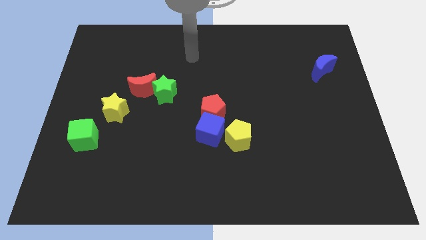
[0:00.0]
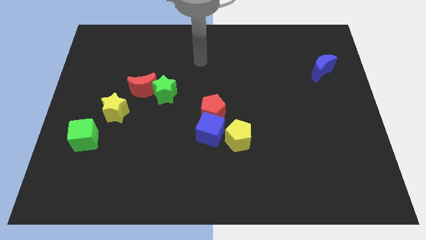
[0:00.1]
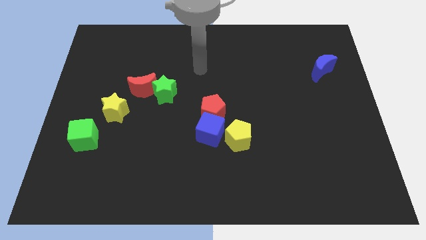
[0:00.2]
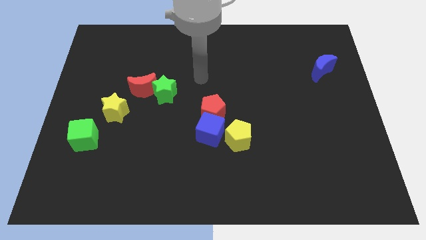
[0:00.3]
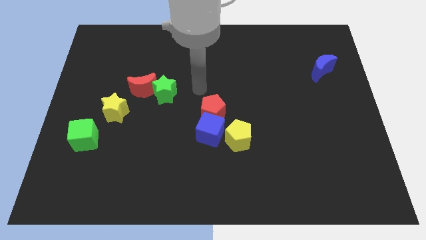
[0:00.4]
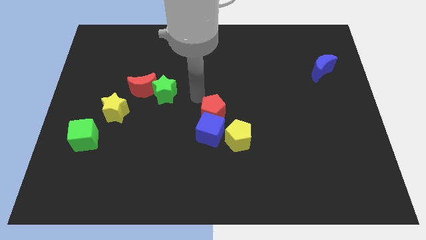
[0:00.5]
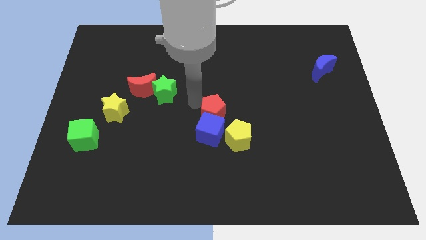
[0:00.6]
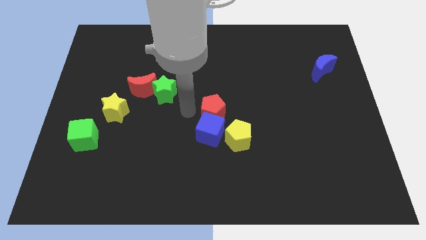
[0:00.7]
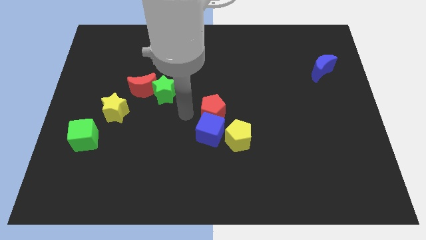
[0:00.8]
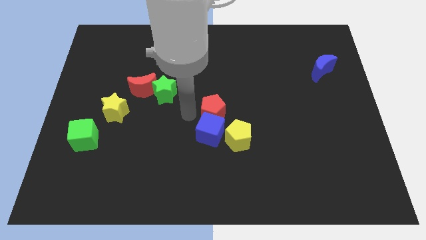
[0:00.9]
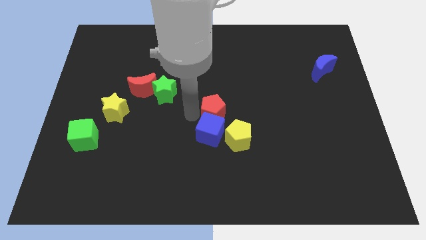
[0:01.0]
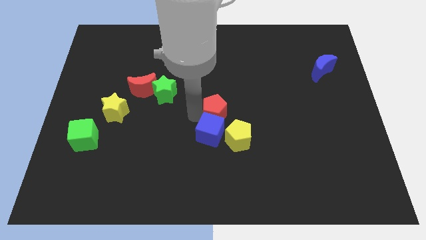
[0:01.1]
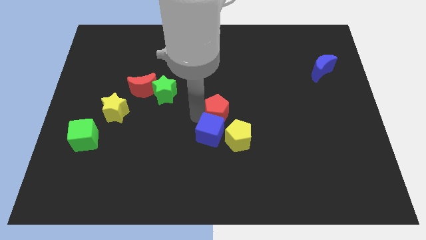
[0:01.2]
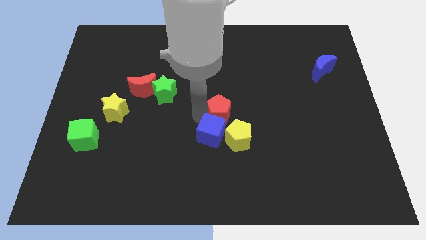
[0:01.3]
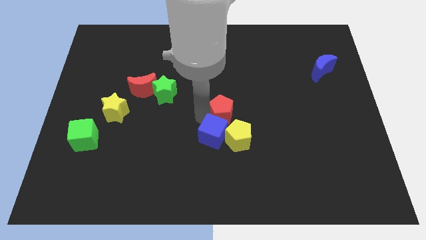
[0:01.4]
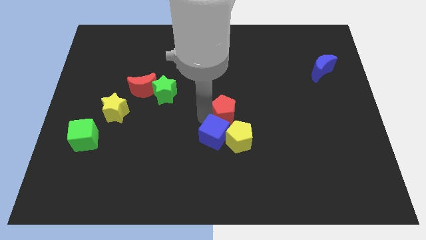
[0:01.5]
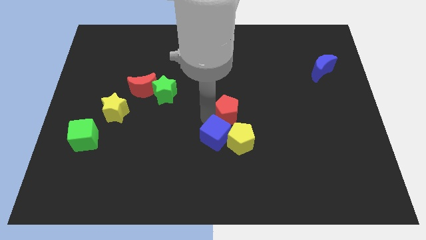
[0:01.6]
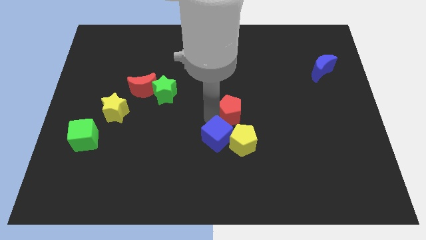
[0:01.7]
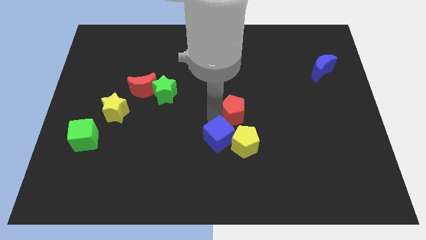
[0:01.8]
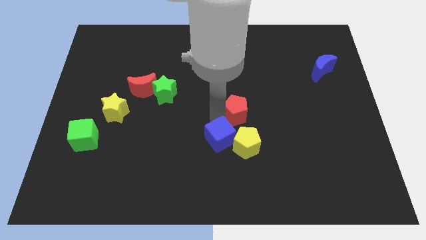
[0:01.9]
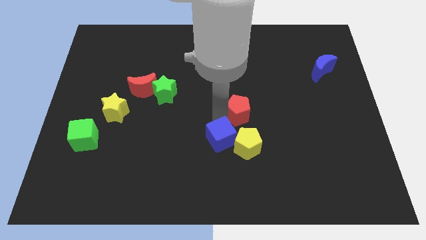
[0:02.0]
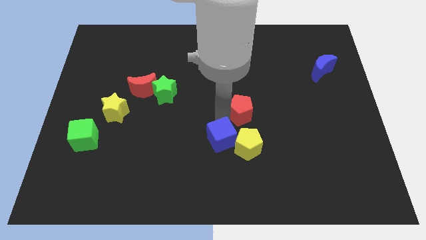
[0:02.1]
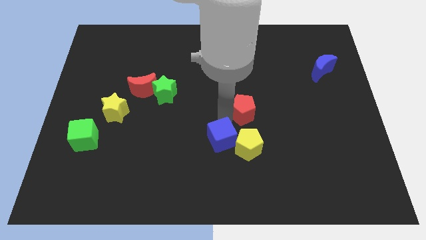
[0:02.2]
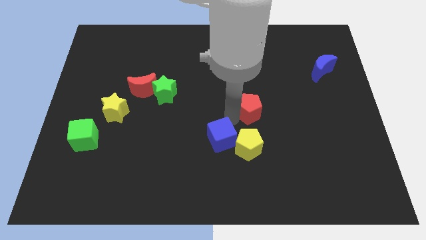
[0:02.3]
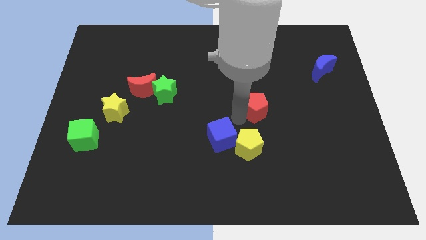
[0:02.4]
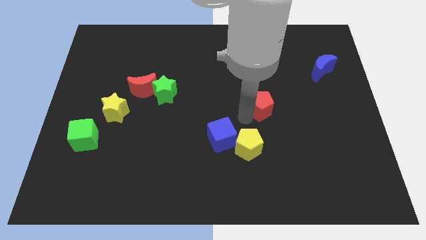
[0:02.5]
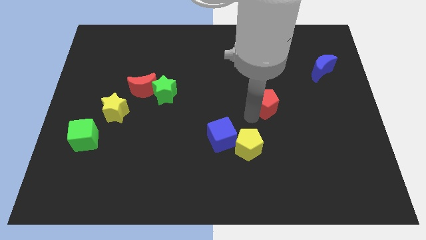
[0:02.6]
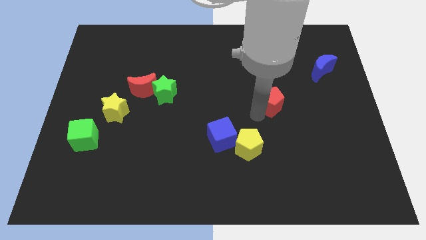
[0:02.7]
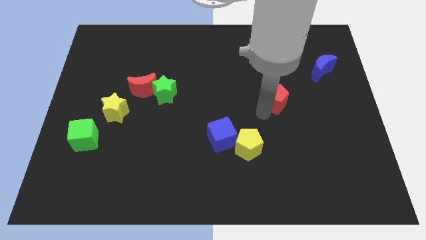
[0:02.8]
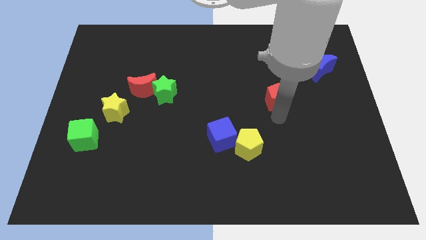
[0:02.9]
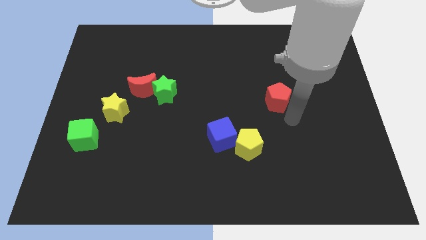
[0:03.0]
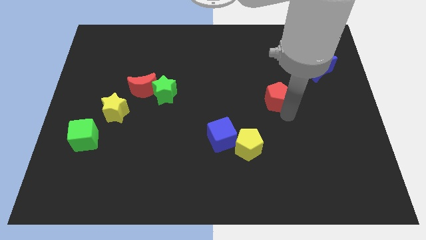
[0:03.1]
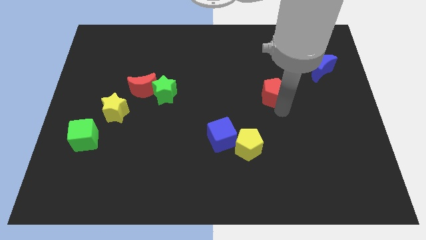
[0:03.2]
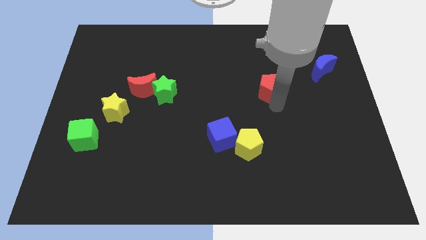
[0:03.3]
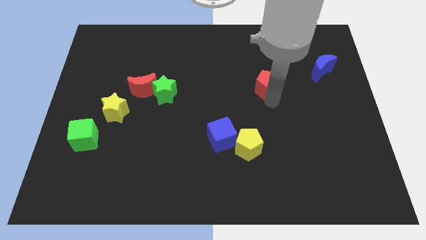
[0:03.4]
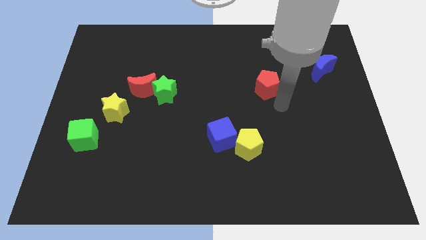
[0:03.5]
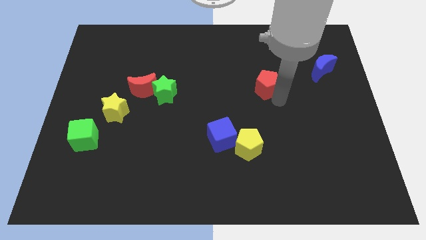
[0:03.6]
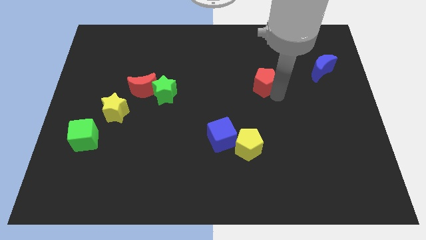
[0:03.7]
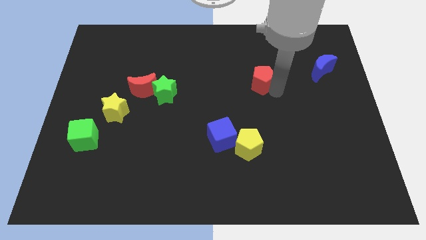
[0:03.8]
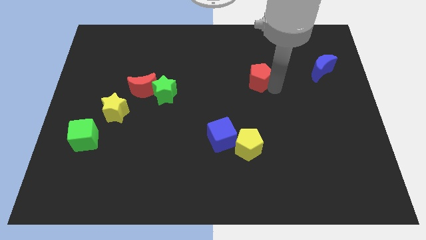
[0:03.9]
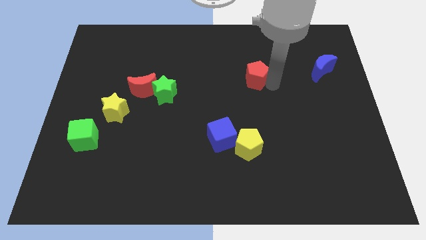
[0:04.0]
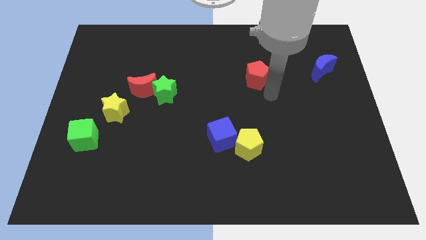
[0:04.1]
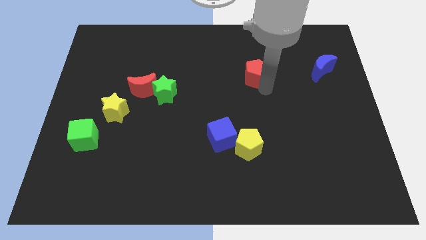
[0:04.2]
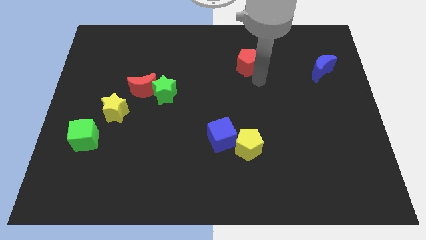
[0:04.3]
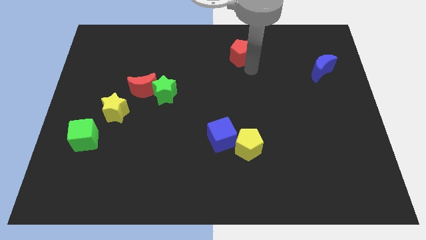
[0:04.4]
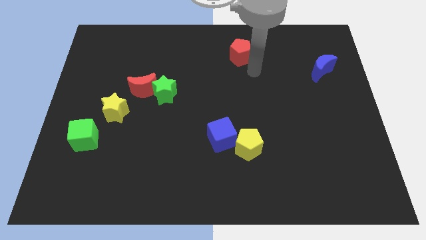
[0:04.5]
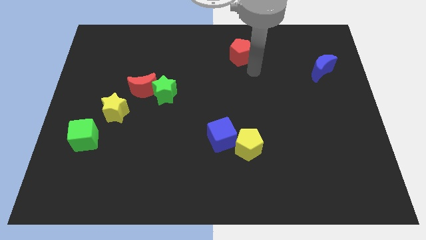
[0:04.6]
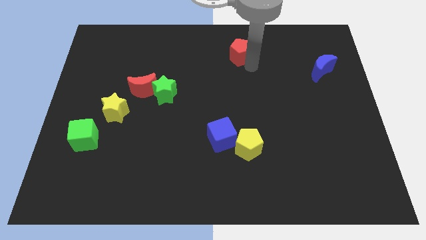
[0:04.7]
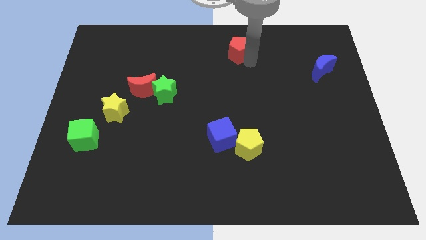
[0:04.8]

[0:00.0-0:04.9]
move the red pentagon to the towards your base
